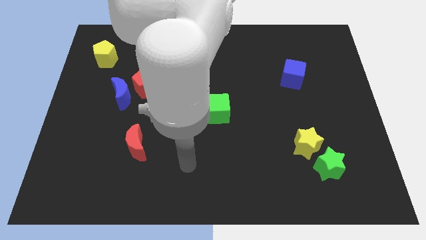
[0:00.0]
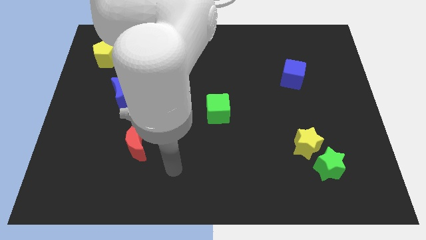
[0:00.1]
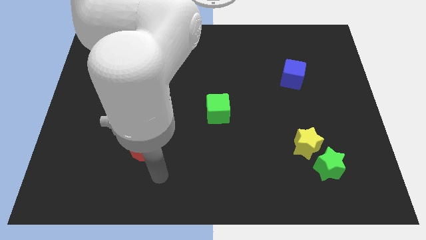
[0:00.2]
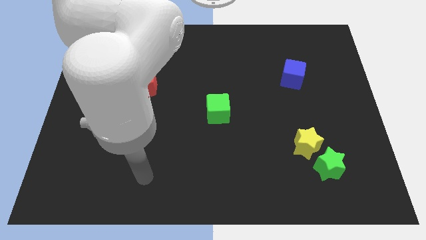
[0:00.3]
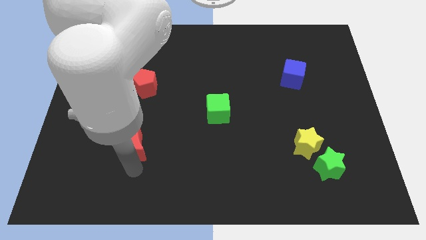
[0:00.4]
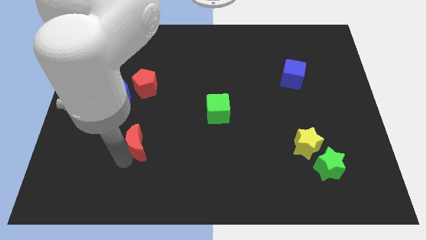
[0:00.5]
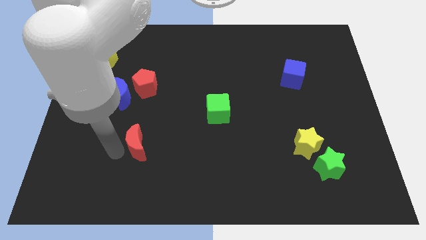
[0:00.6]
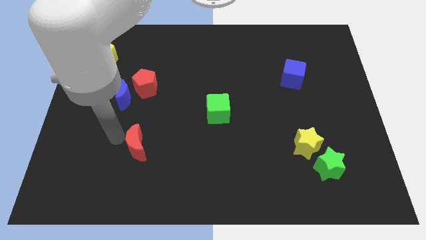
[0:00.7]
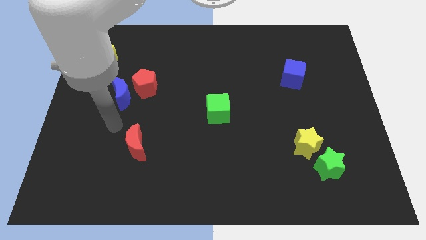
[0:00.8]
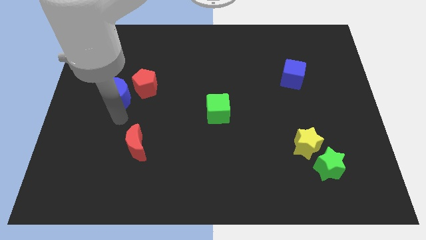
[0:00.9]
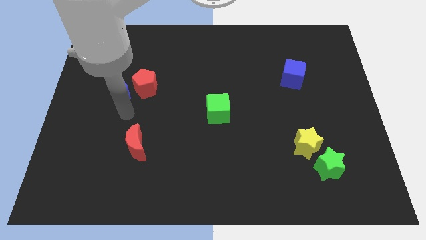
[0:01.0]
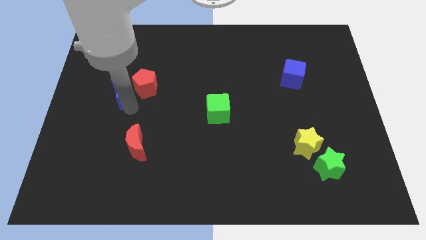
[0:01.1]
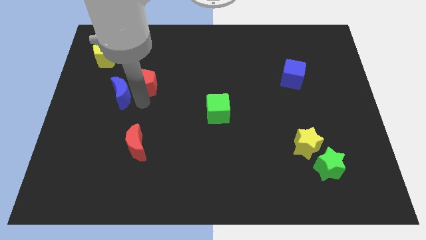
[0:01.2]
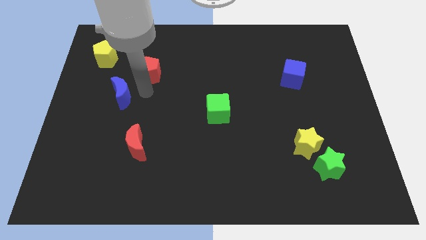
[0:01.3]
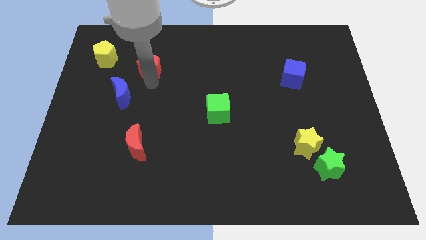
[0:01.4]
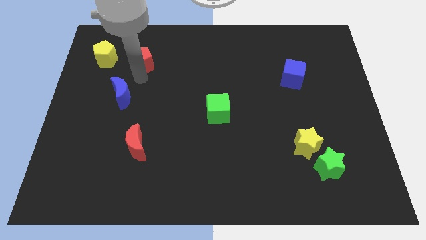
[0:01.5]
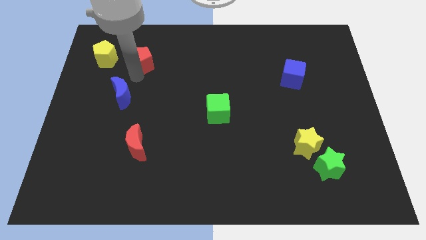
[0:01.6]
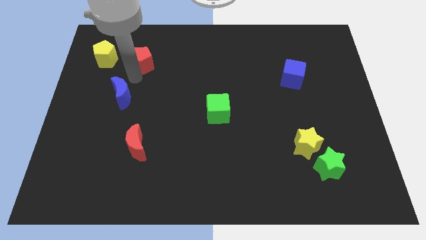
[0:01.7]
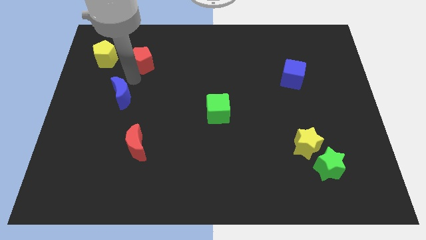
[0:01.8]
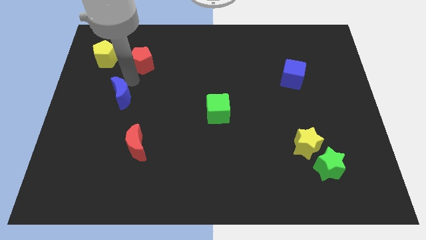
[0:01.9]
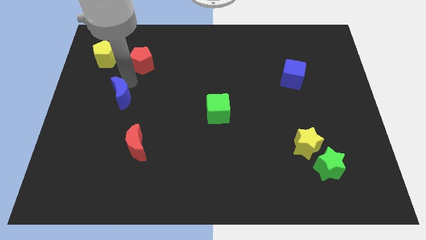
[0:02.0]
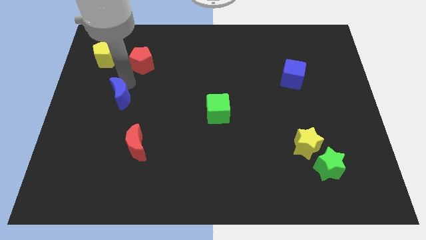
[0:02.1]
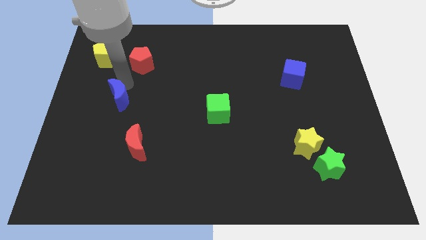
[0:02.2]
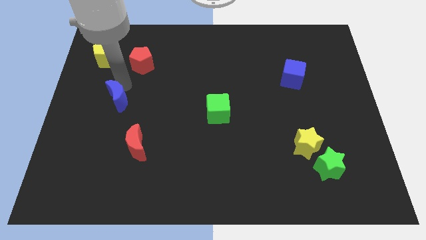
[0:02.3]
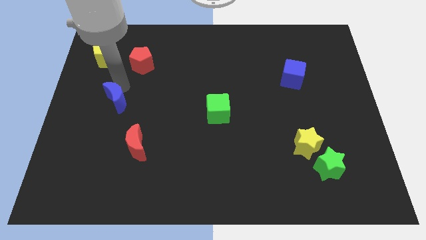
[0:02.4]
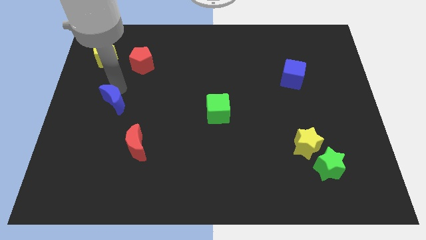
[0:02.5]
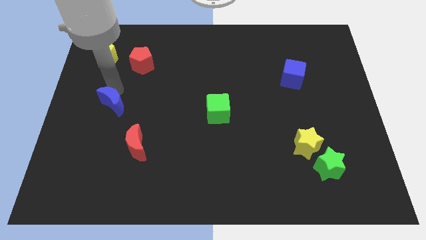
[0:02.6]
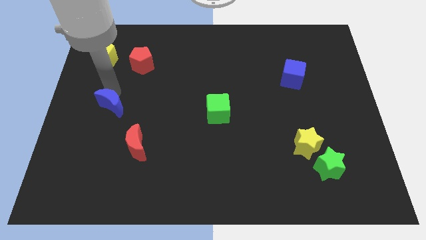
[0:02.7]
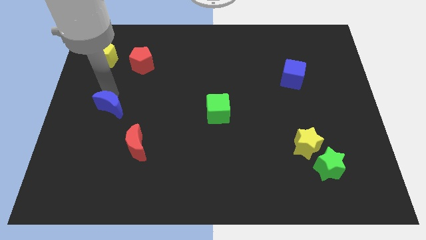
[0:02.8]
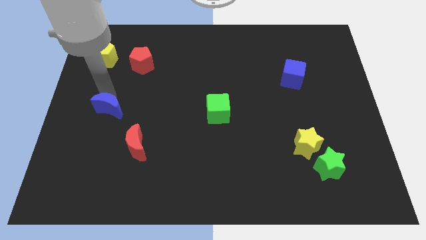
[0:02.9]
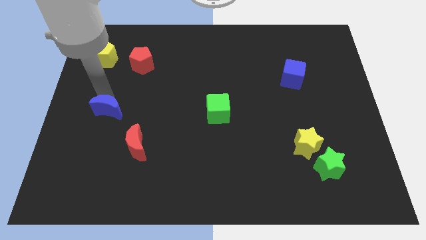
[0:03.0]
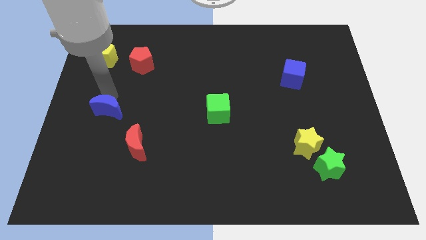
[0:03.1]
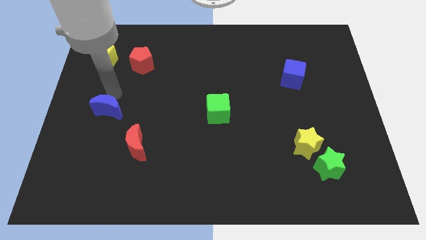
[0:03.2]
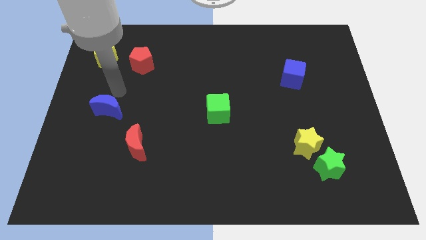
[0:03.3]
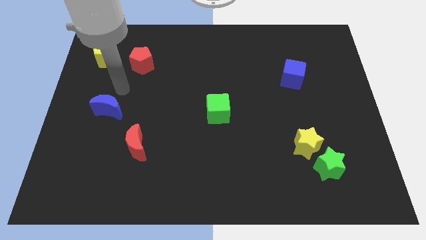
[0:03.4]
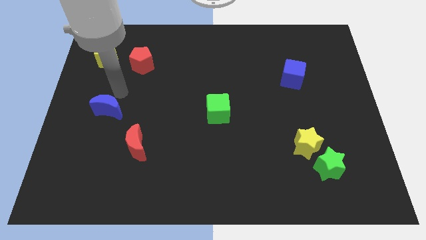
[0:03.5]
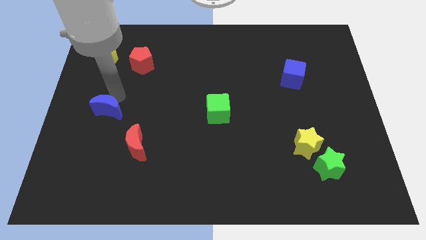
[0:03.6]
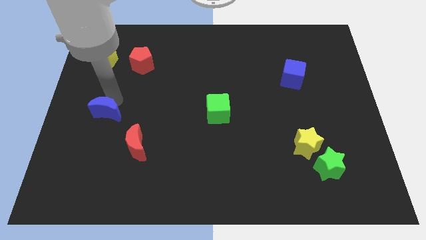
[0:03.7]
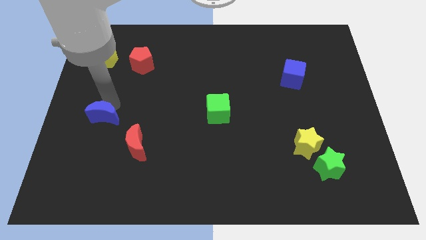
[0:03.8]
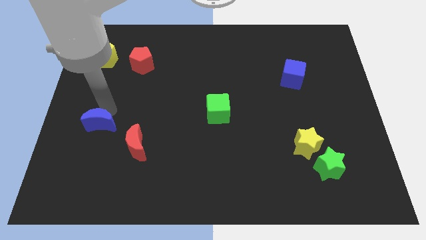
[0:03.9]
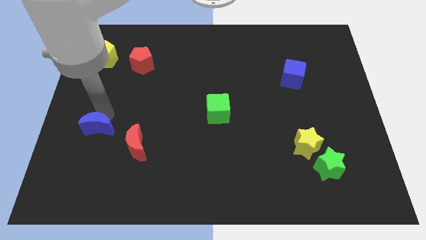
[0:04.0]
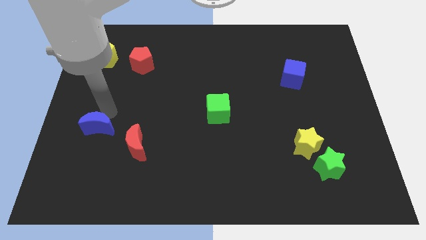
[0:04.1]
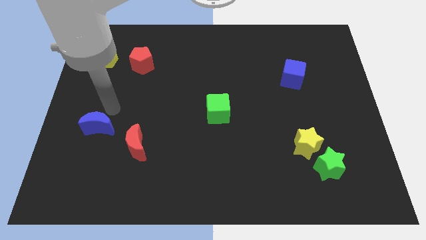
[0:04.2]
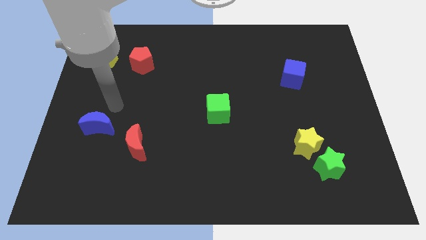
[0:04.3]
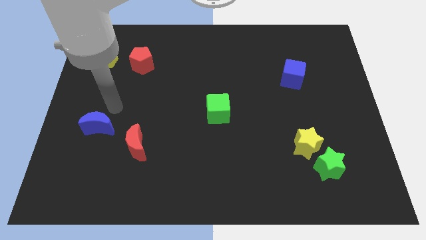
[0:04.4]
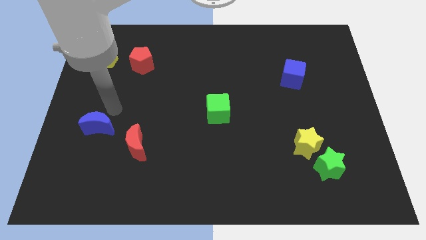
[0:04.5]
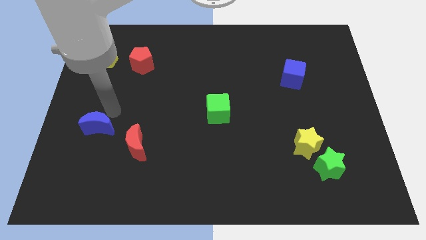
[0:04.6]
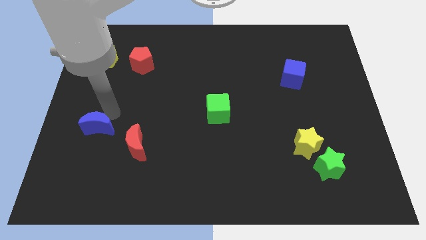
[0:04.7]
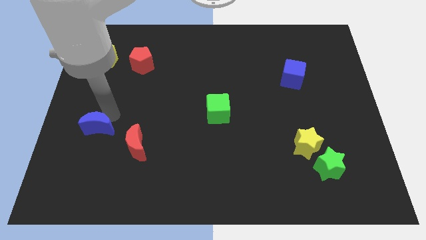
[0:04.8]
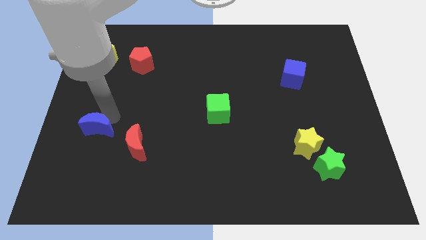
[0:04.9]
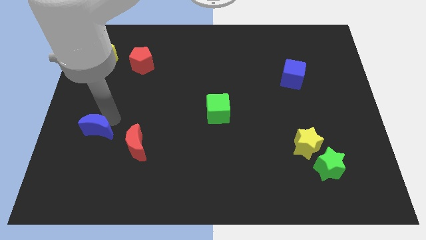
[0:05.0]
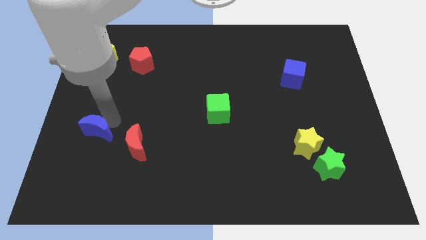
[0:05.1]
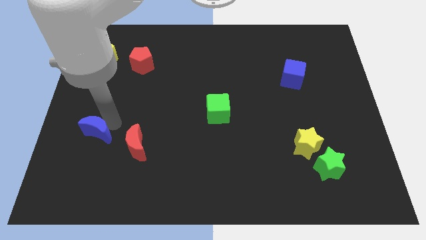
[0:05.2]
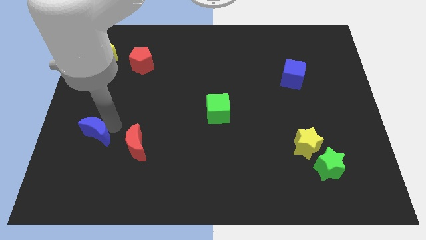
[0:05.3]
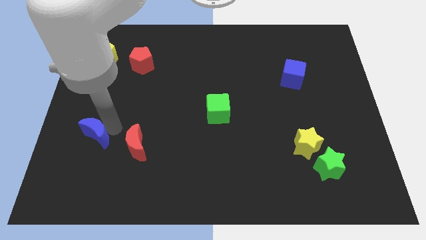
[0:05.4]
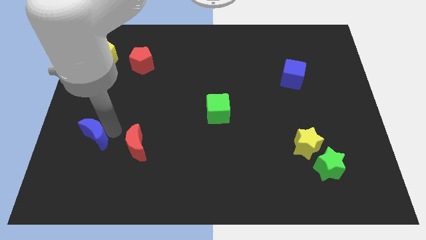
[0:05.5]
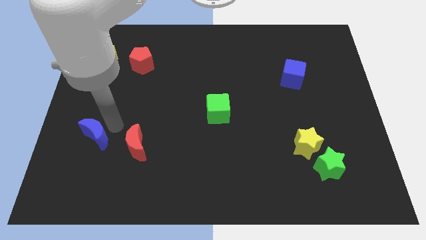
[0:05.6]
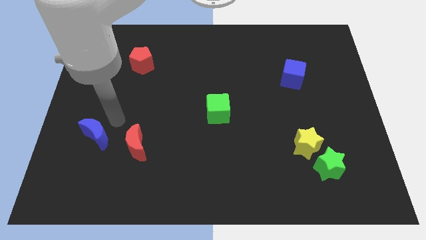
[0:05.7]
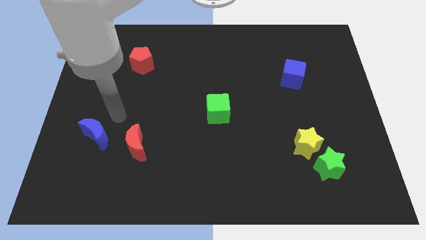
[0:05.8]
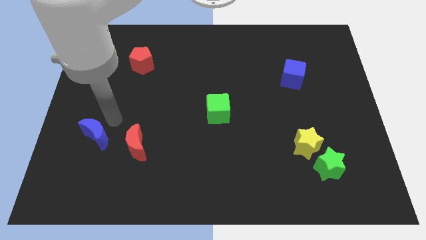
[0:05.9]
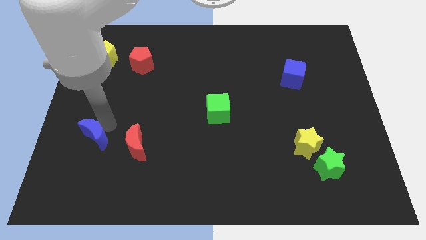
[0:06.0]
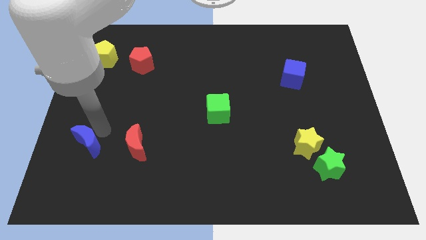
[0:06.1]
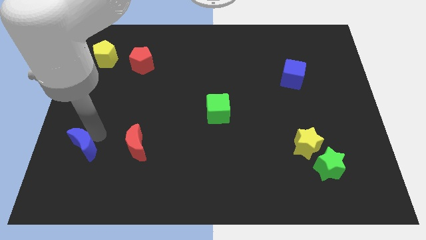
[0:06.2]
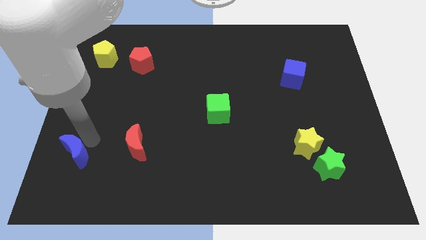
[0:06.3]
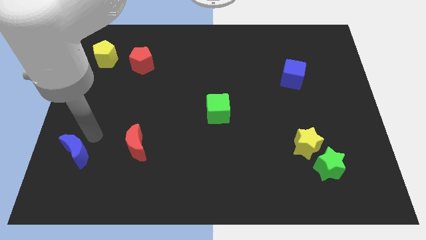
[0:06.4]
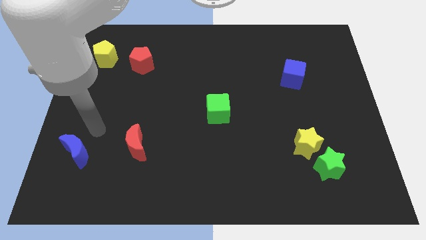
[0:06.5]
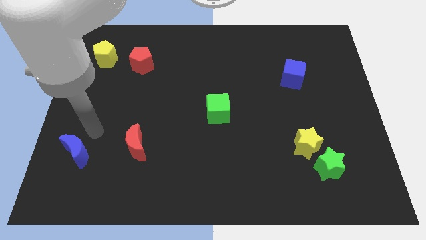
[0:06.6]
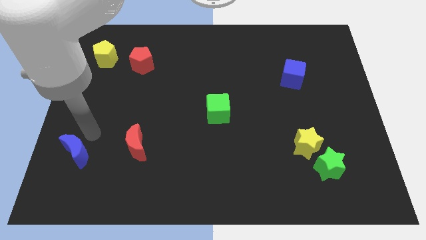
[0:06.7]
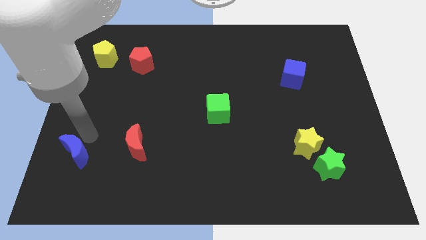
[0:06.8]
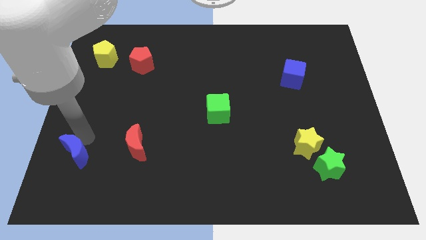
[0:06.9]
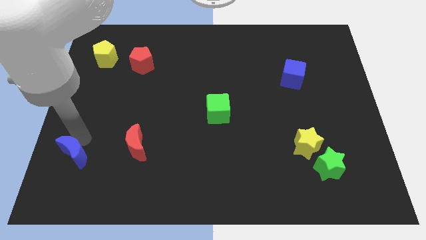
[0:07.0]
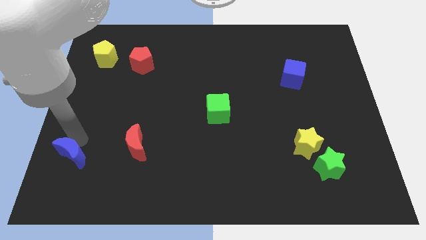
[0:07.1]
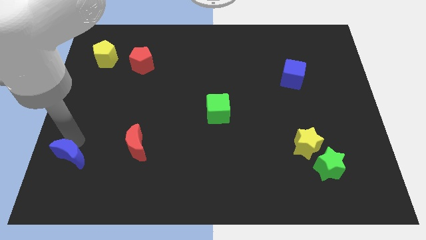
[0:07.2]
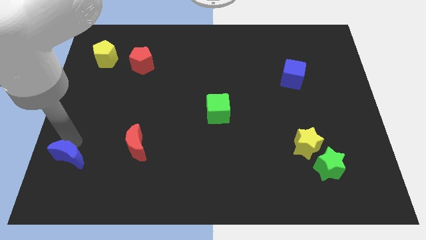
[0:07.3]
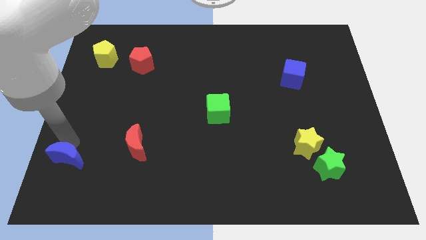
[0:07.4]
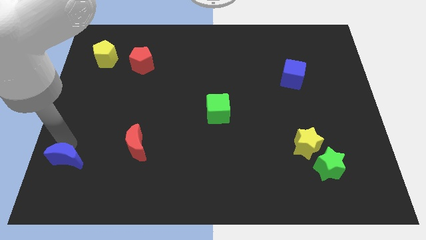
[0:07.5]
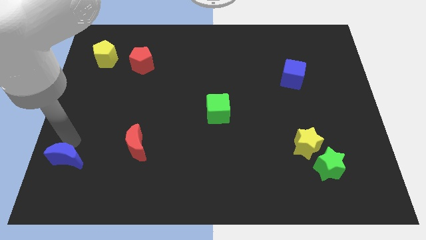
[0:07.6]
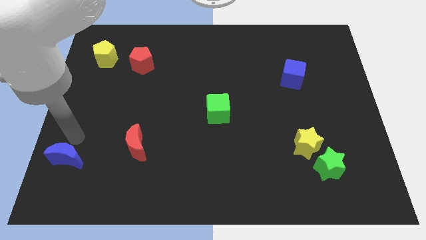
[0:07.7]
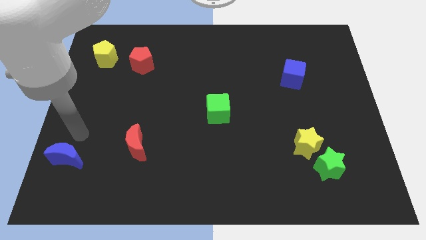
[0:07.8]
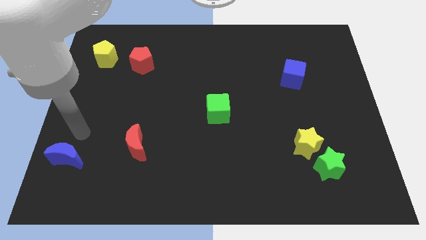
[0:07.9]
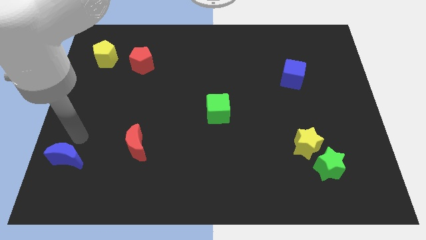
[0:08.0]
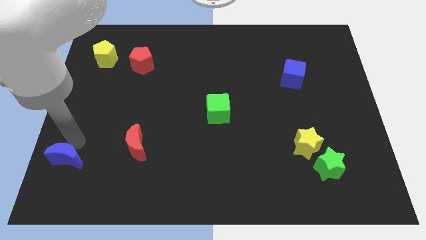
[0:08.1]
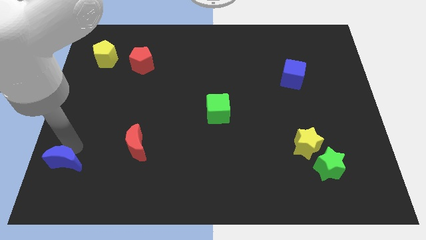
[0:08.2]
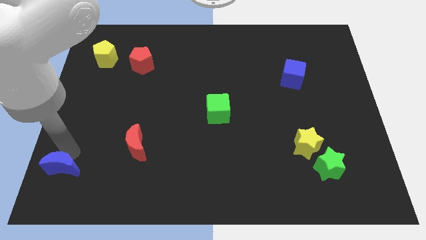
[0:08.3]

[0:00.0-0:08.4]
move the blue moon to the bottom left of the board
